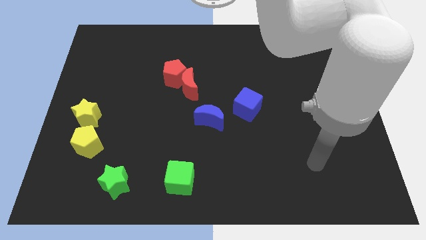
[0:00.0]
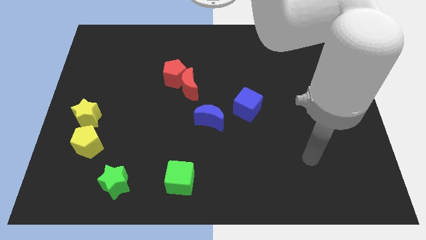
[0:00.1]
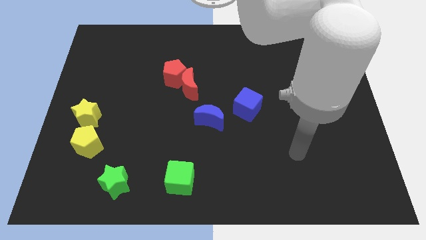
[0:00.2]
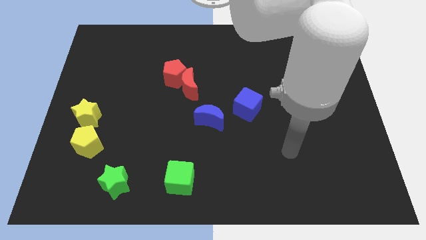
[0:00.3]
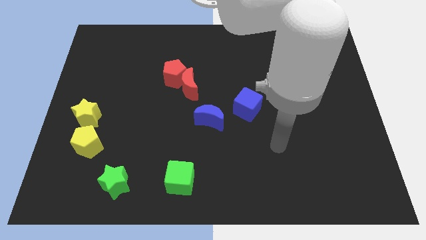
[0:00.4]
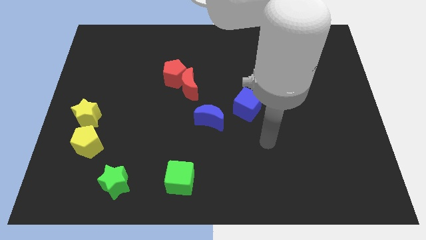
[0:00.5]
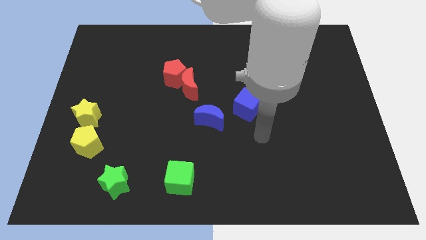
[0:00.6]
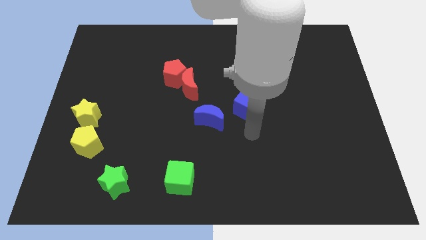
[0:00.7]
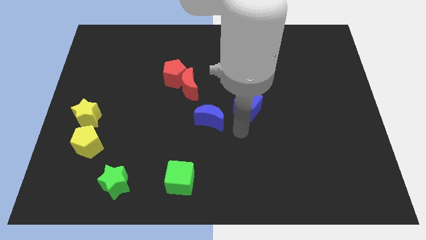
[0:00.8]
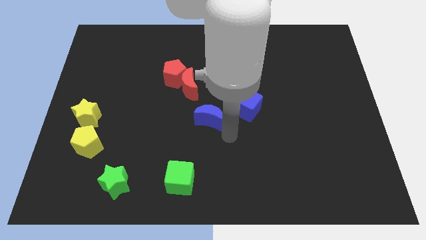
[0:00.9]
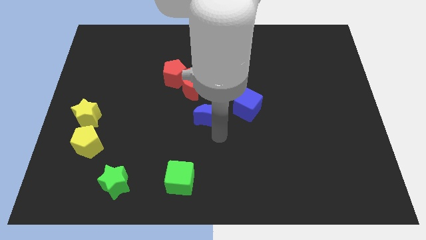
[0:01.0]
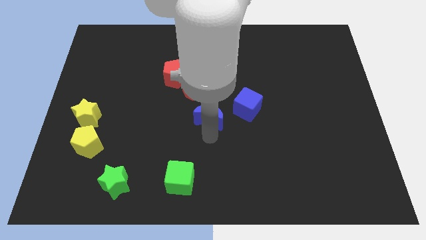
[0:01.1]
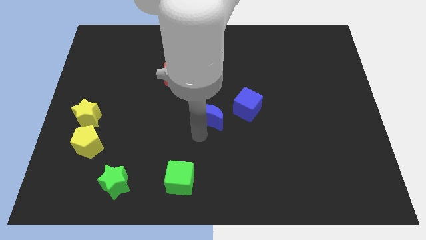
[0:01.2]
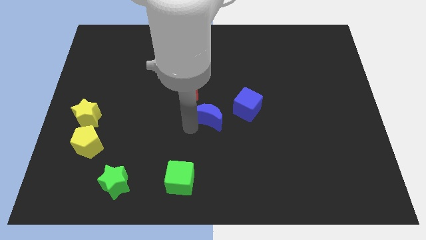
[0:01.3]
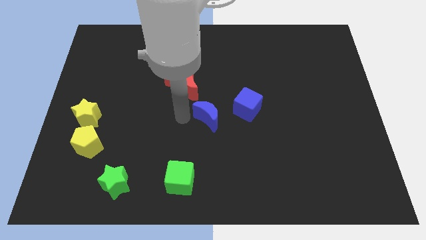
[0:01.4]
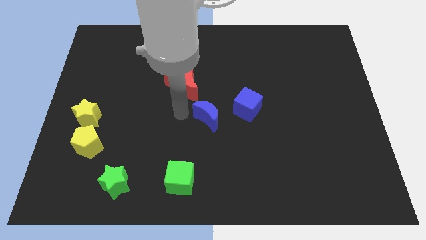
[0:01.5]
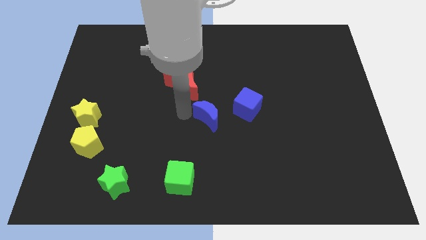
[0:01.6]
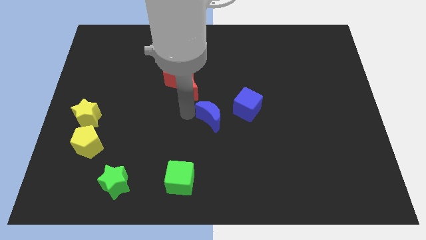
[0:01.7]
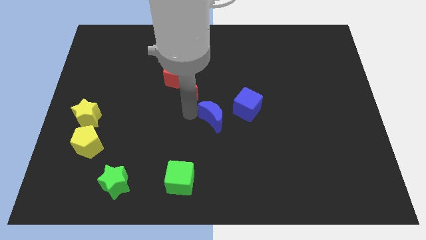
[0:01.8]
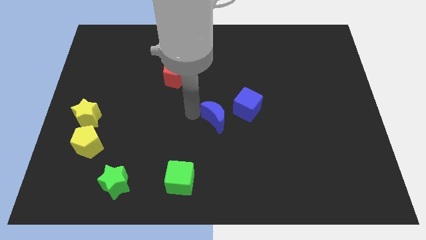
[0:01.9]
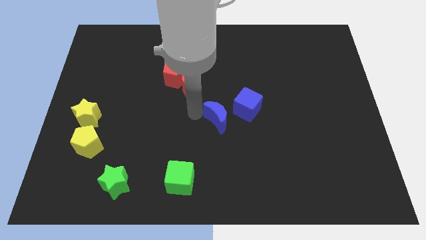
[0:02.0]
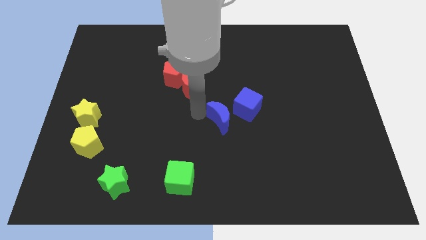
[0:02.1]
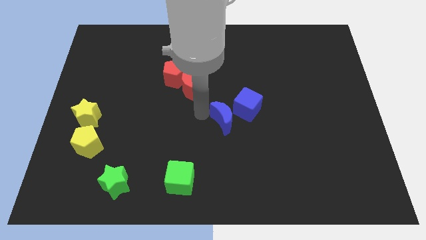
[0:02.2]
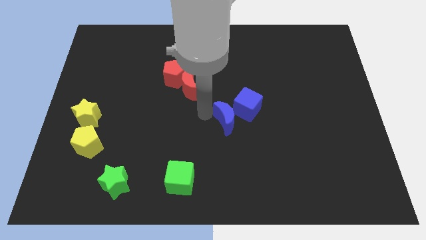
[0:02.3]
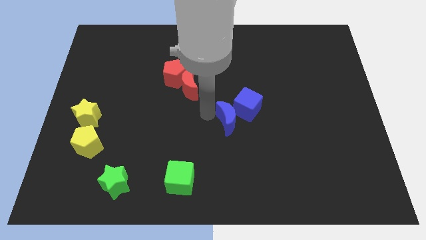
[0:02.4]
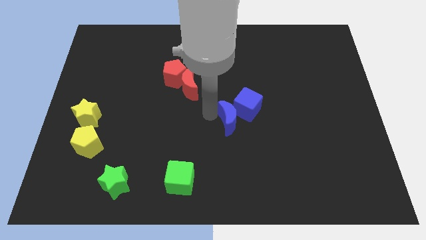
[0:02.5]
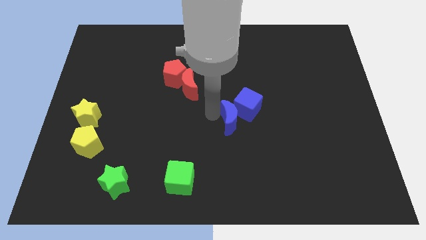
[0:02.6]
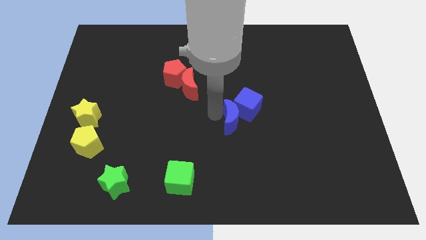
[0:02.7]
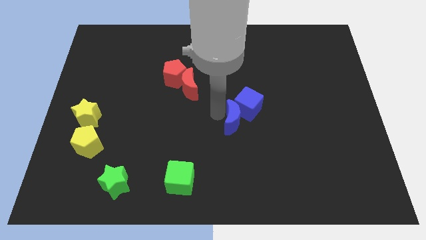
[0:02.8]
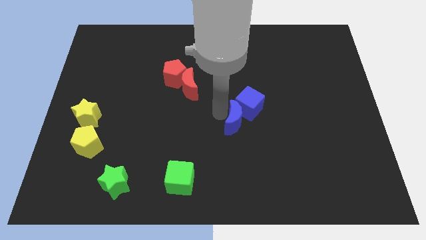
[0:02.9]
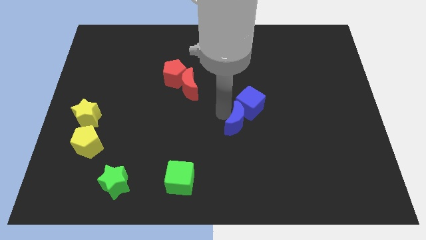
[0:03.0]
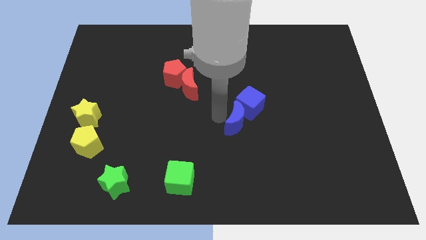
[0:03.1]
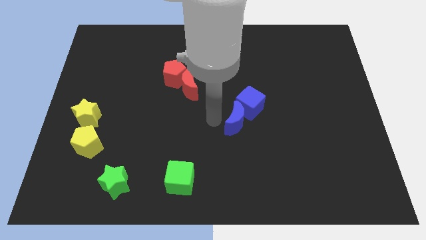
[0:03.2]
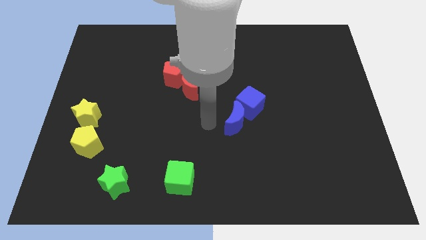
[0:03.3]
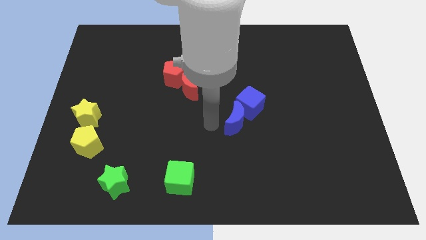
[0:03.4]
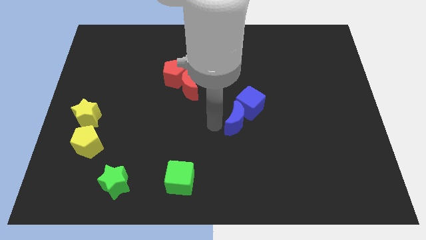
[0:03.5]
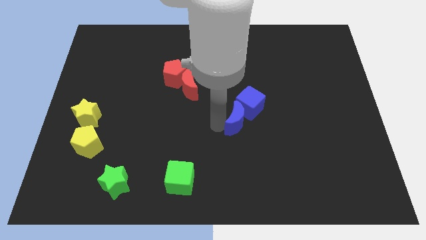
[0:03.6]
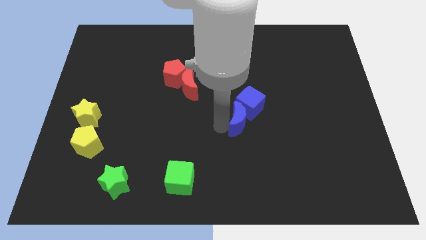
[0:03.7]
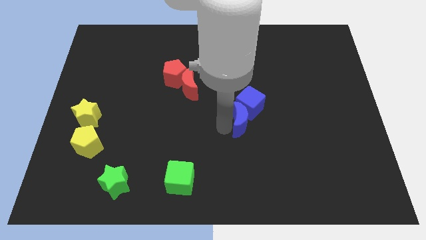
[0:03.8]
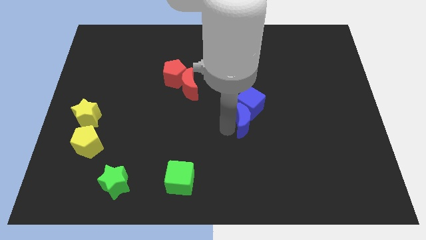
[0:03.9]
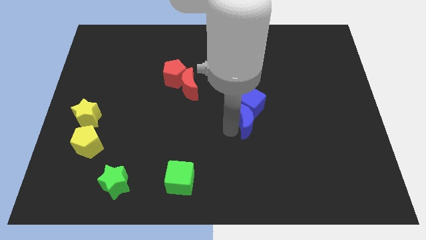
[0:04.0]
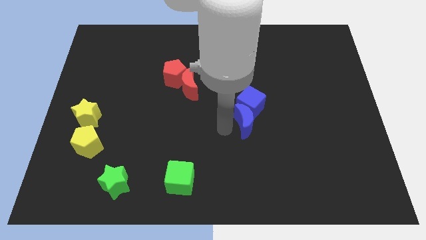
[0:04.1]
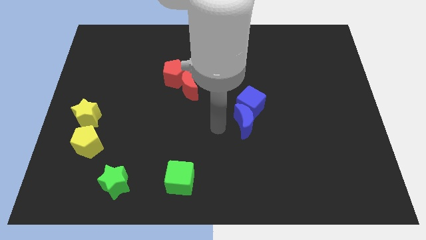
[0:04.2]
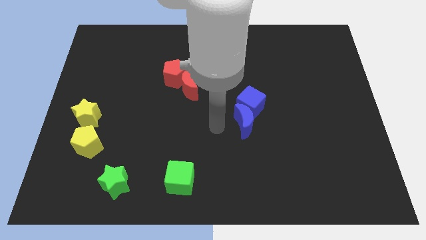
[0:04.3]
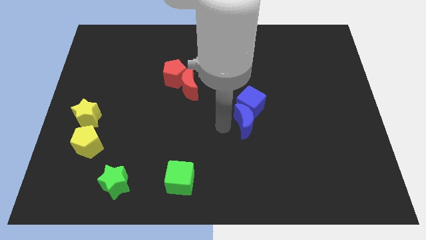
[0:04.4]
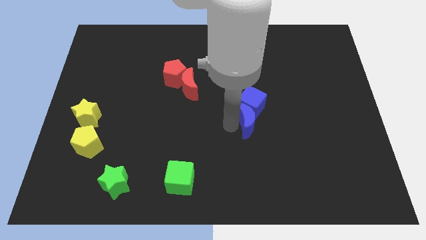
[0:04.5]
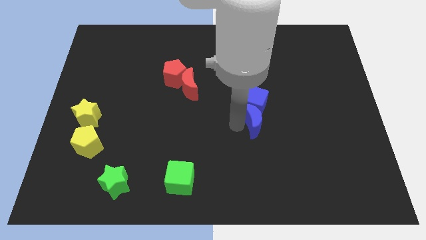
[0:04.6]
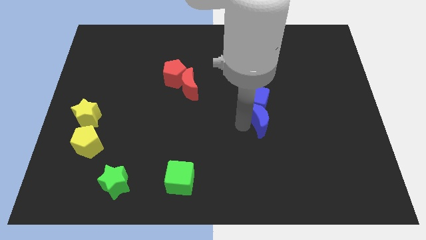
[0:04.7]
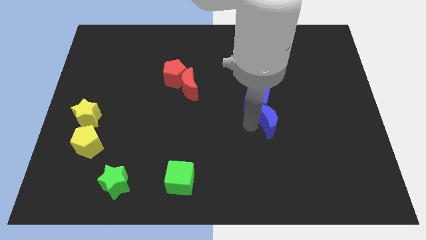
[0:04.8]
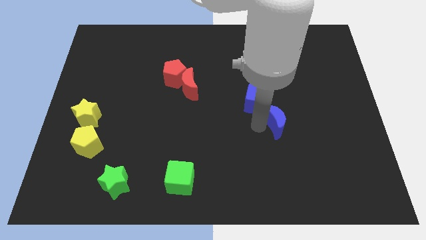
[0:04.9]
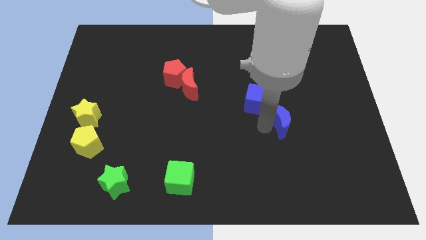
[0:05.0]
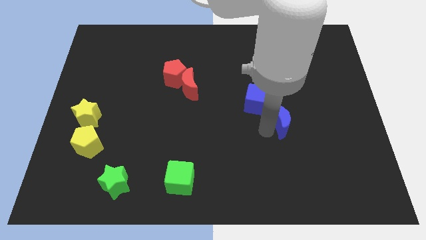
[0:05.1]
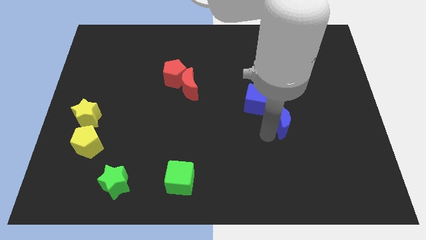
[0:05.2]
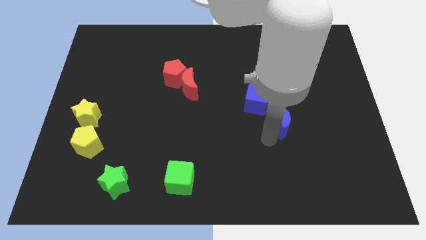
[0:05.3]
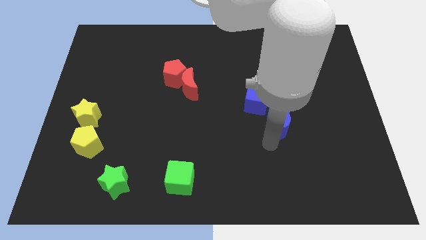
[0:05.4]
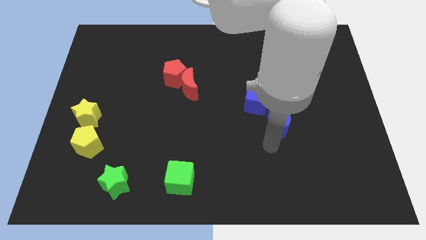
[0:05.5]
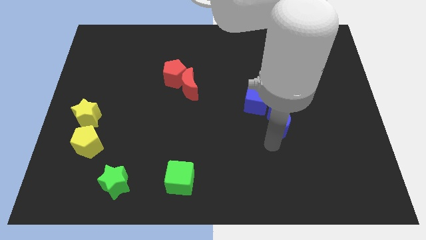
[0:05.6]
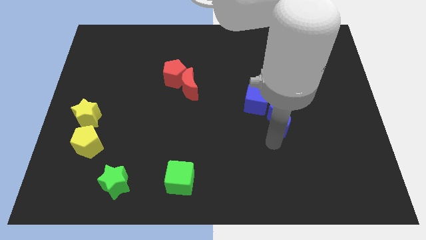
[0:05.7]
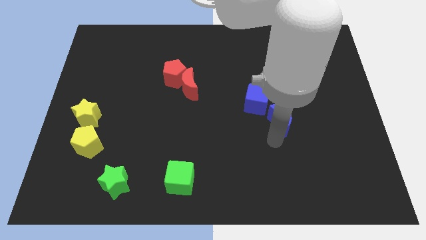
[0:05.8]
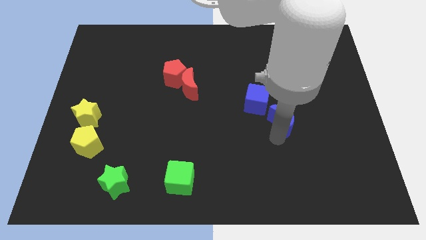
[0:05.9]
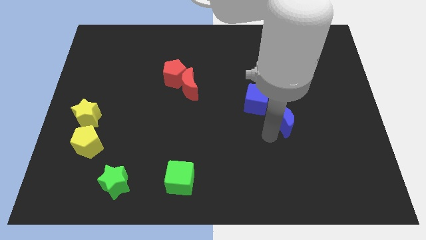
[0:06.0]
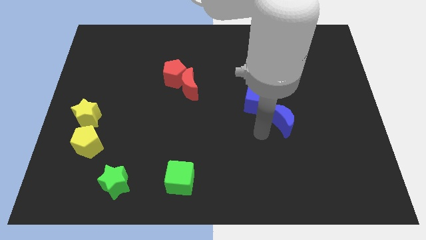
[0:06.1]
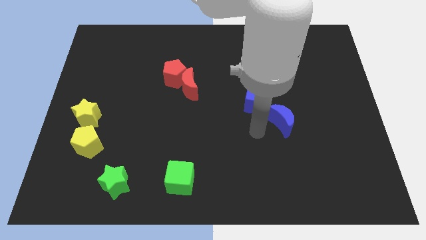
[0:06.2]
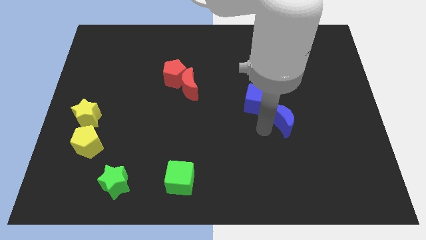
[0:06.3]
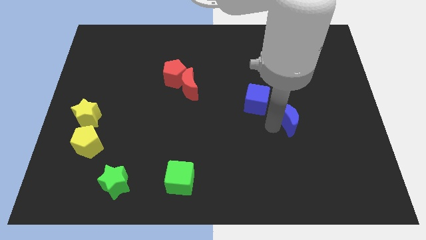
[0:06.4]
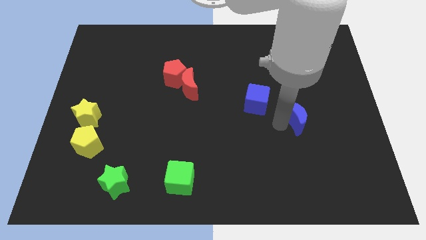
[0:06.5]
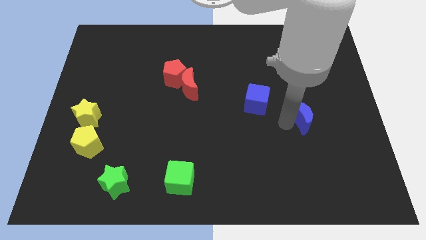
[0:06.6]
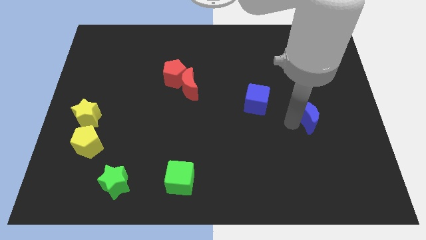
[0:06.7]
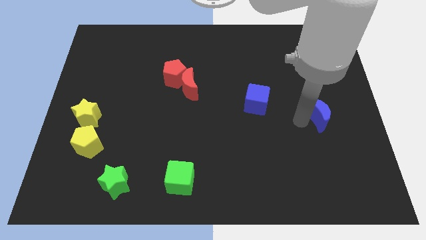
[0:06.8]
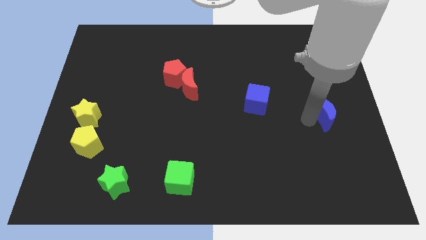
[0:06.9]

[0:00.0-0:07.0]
push the blue moon to the right side
